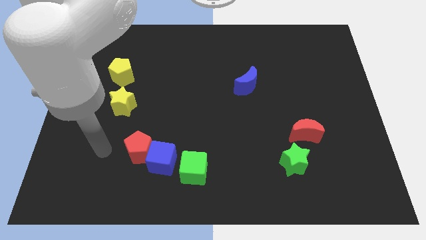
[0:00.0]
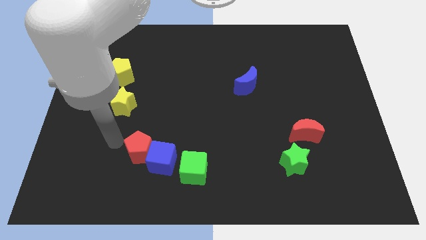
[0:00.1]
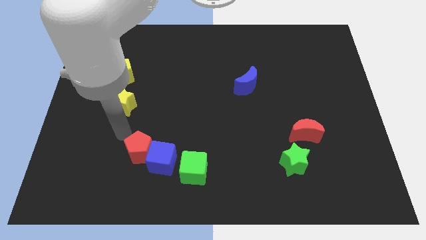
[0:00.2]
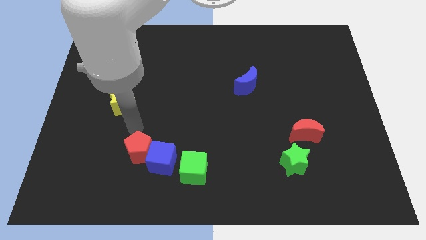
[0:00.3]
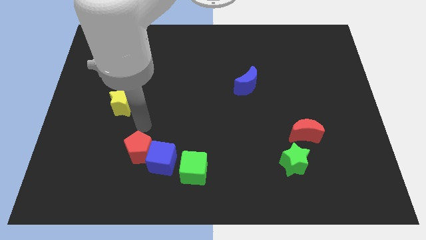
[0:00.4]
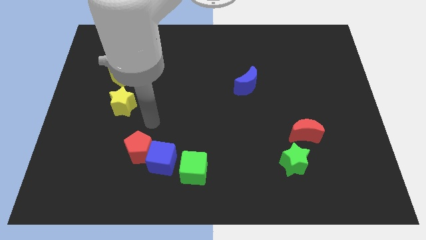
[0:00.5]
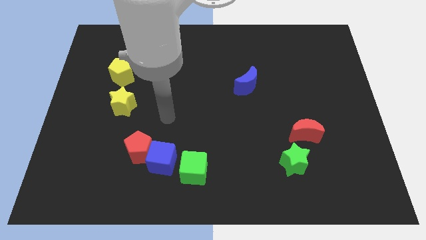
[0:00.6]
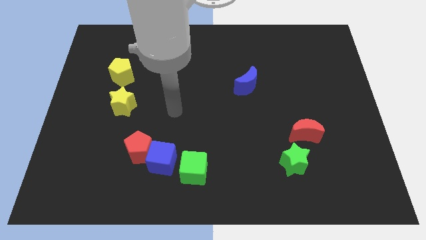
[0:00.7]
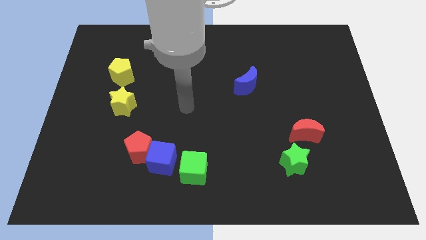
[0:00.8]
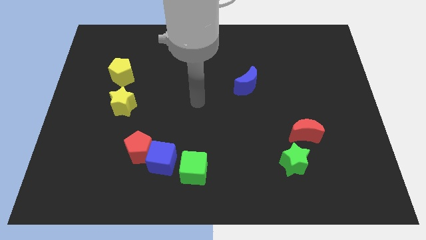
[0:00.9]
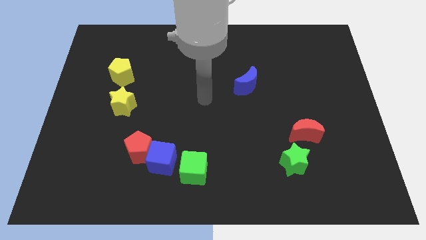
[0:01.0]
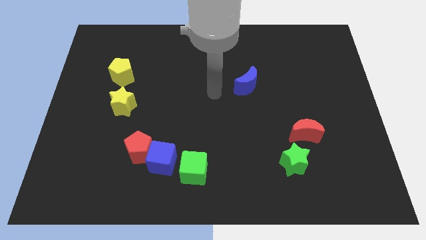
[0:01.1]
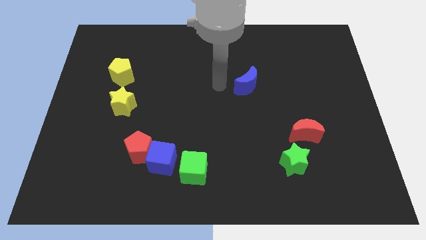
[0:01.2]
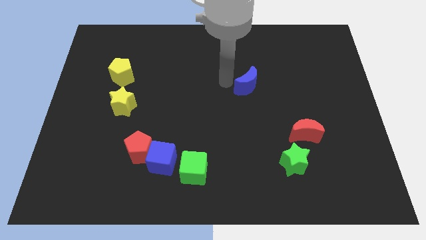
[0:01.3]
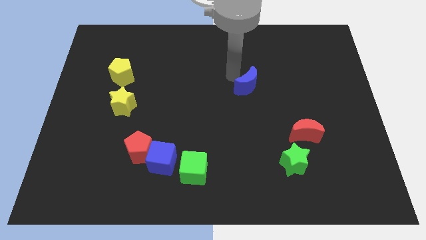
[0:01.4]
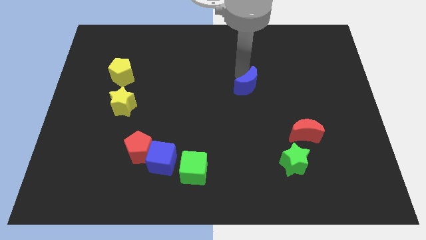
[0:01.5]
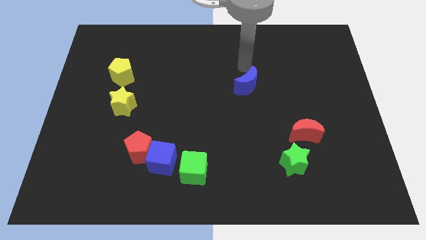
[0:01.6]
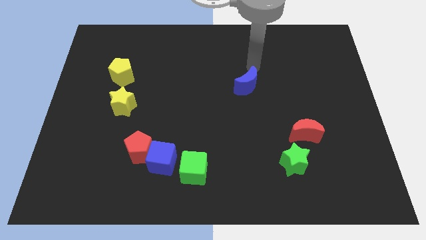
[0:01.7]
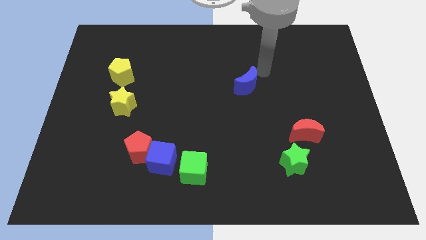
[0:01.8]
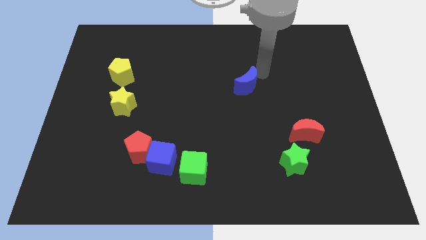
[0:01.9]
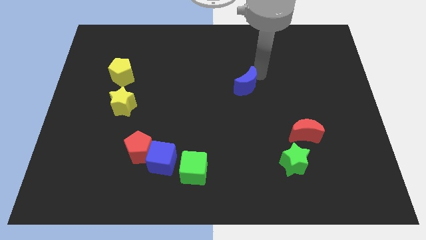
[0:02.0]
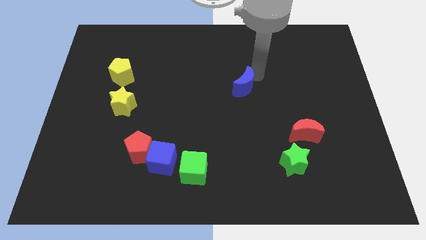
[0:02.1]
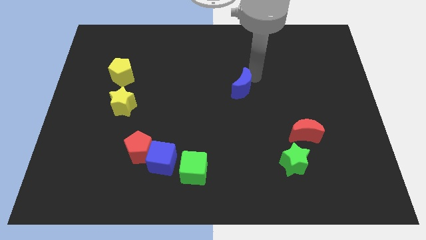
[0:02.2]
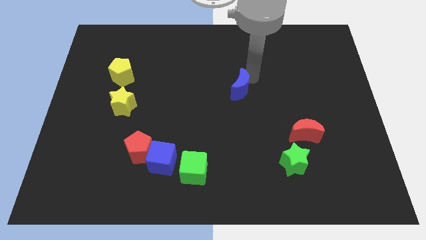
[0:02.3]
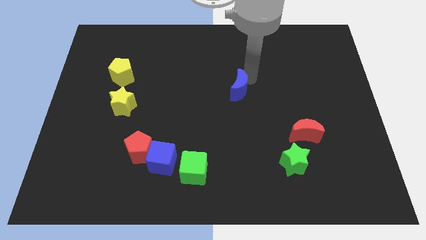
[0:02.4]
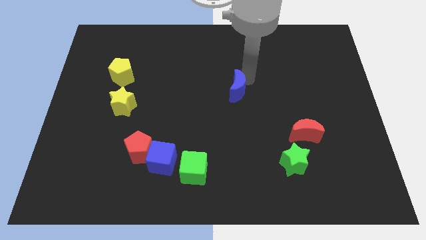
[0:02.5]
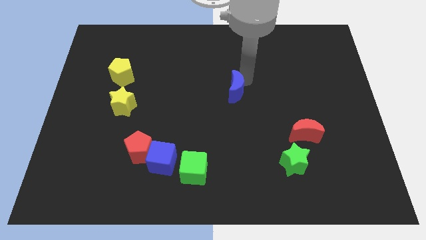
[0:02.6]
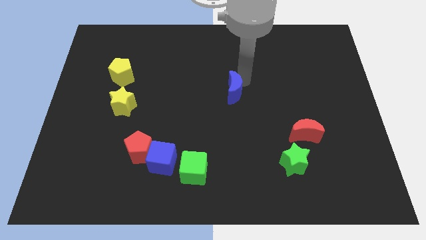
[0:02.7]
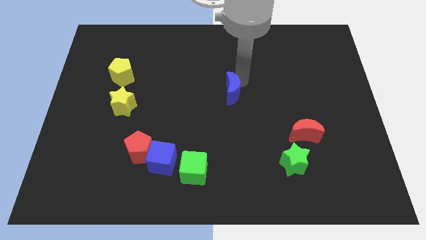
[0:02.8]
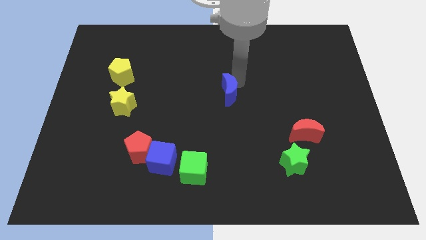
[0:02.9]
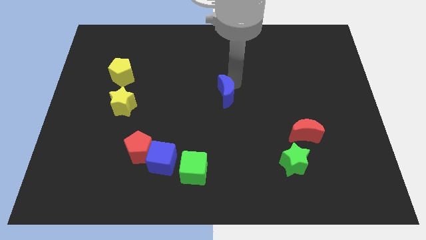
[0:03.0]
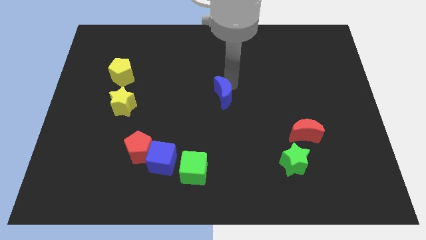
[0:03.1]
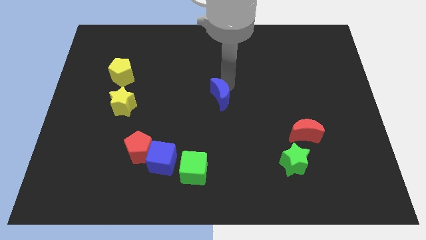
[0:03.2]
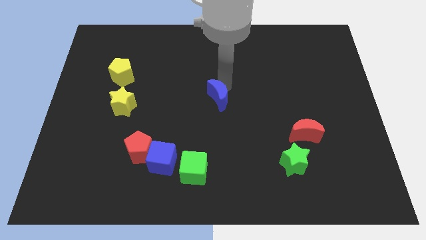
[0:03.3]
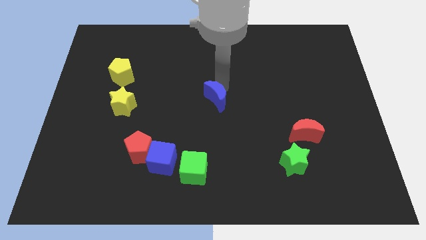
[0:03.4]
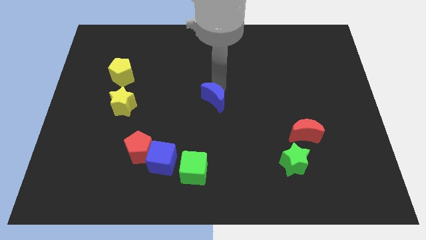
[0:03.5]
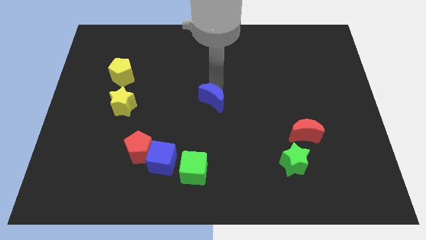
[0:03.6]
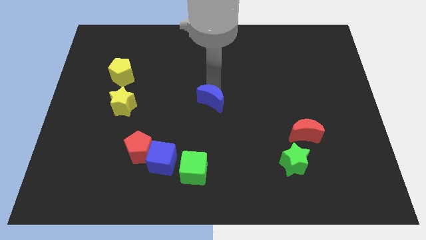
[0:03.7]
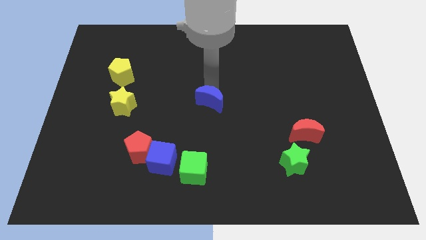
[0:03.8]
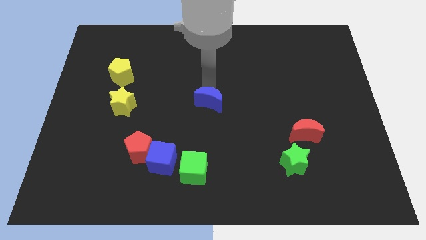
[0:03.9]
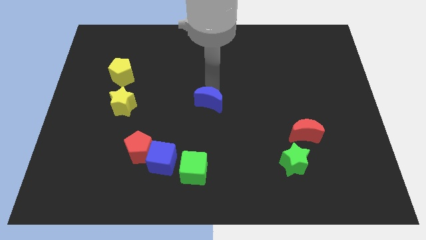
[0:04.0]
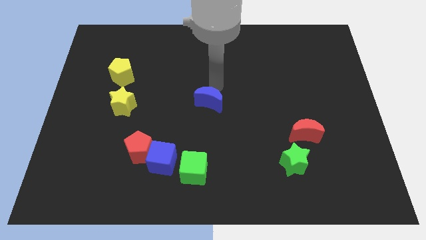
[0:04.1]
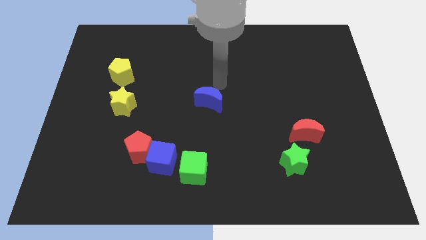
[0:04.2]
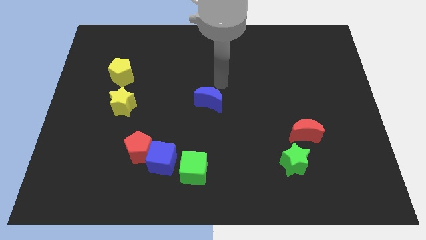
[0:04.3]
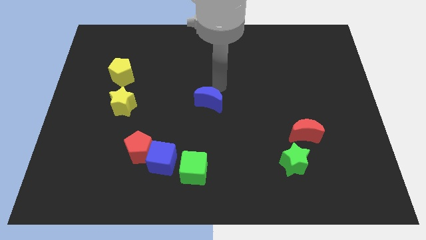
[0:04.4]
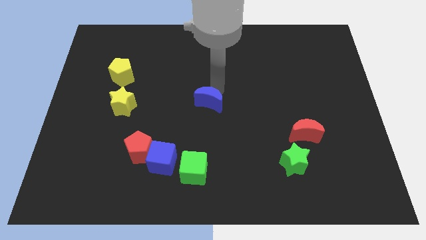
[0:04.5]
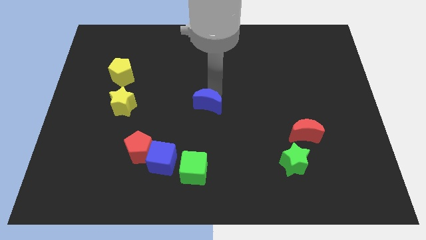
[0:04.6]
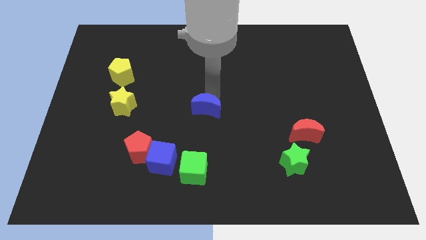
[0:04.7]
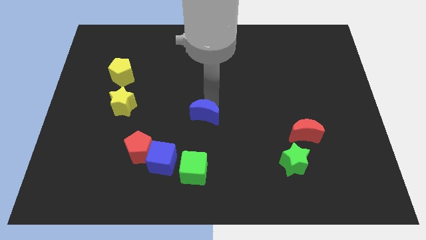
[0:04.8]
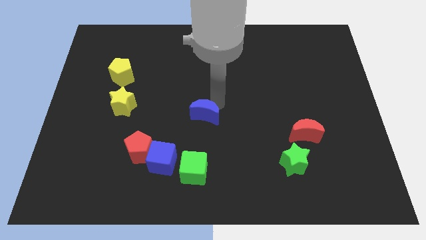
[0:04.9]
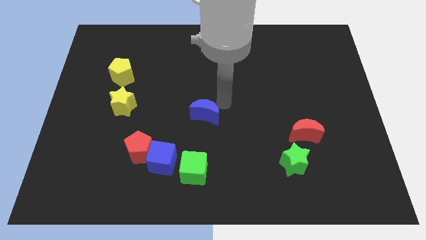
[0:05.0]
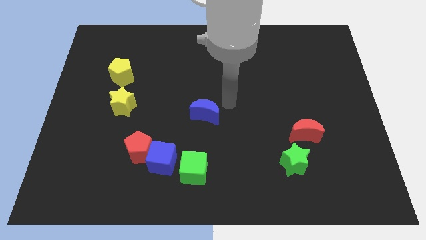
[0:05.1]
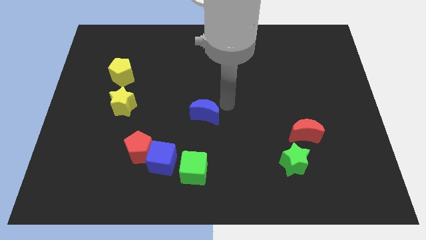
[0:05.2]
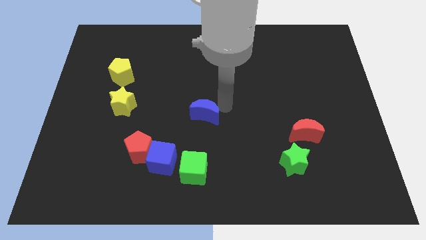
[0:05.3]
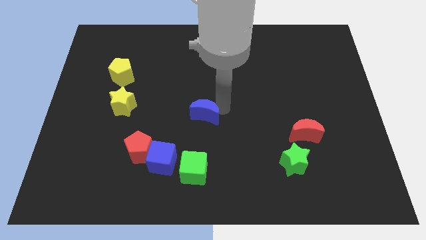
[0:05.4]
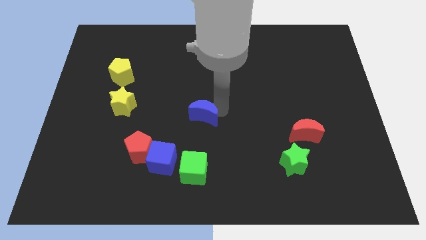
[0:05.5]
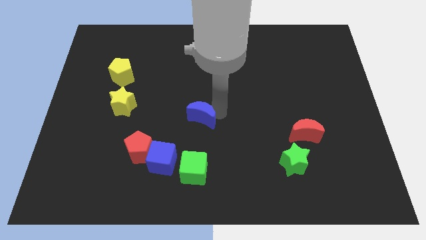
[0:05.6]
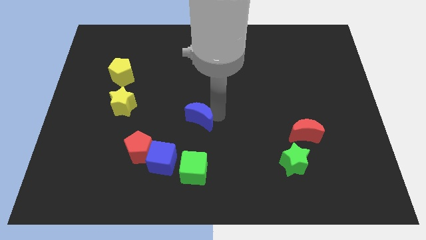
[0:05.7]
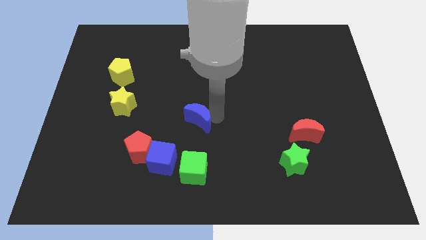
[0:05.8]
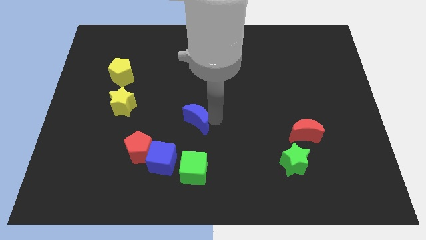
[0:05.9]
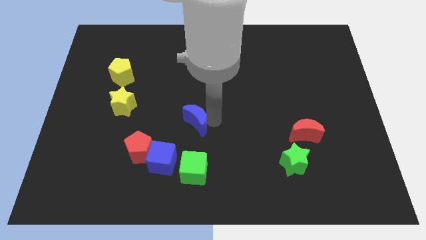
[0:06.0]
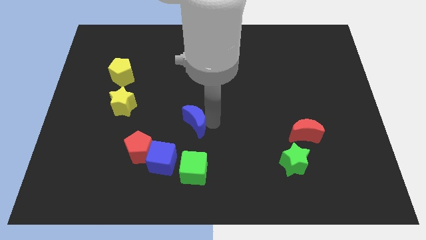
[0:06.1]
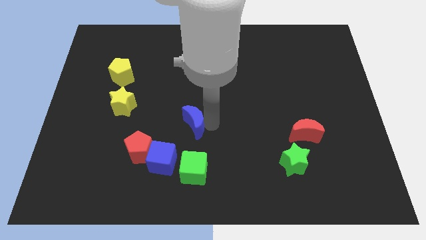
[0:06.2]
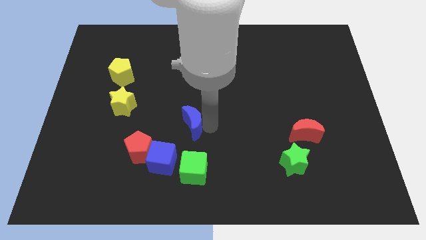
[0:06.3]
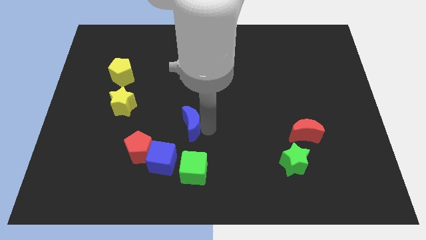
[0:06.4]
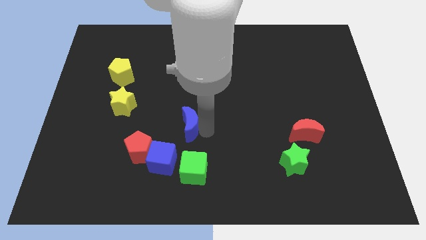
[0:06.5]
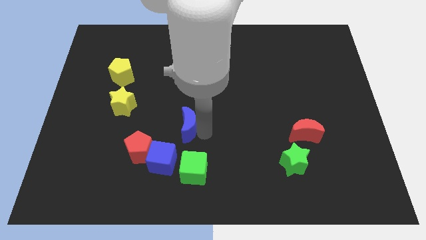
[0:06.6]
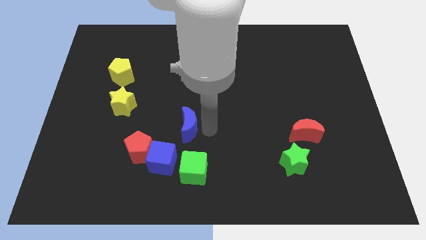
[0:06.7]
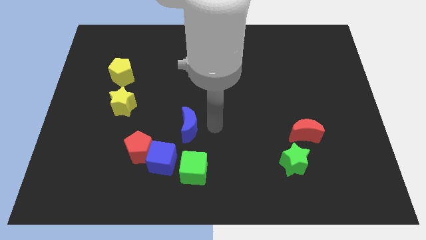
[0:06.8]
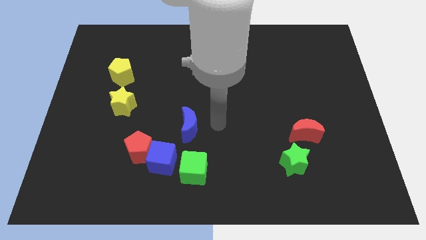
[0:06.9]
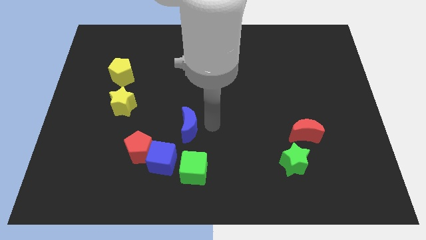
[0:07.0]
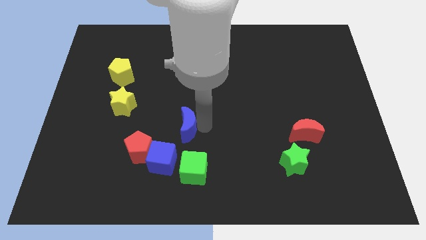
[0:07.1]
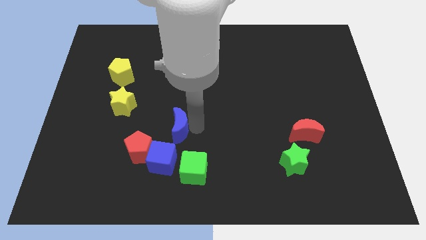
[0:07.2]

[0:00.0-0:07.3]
move the blue moon diagonally down and to the left

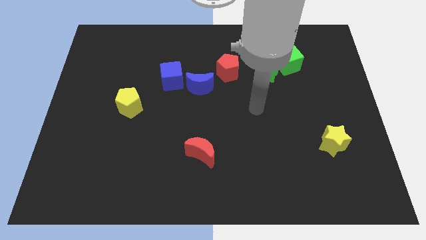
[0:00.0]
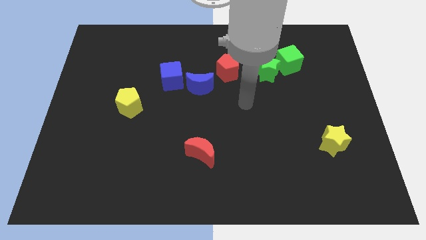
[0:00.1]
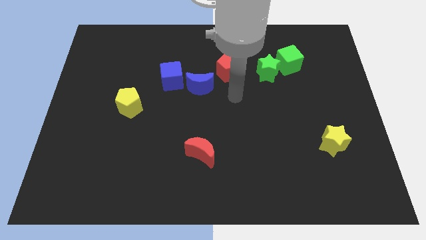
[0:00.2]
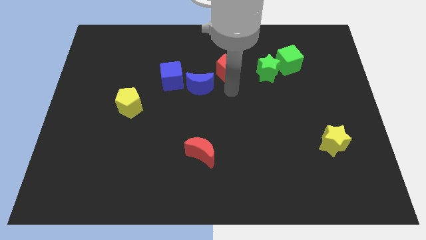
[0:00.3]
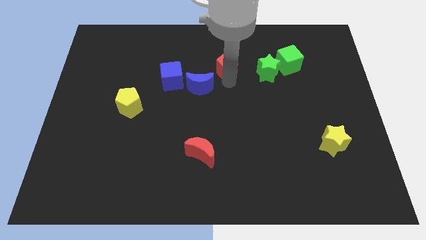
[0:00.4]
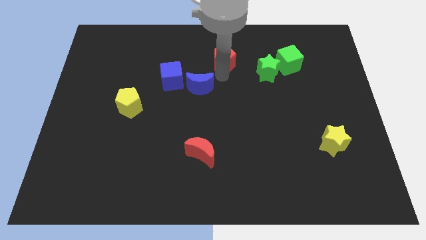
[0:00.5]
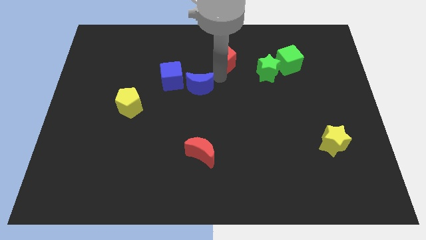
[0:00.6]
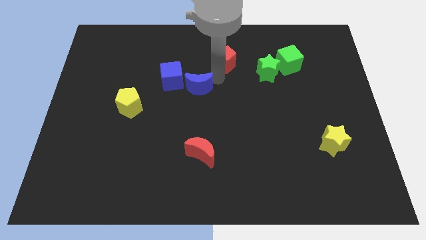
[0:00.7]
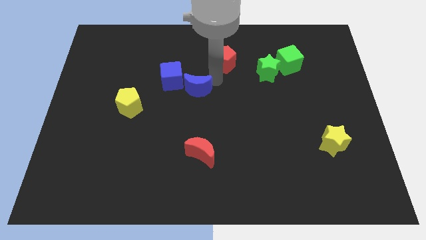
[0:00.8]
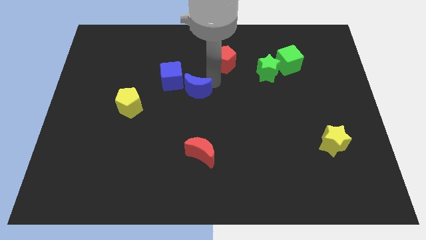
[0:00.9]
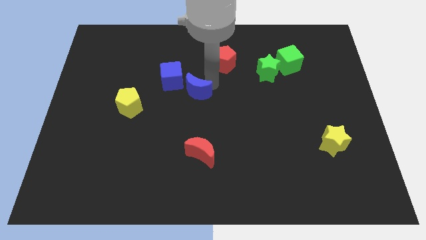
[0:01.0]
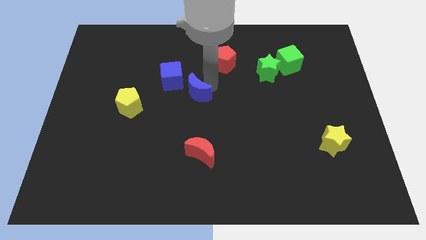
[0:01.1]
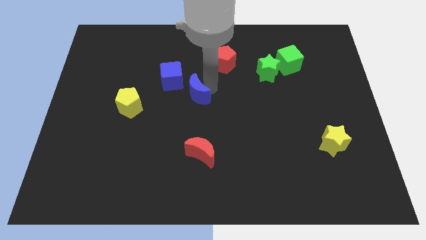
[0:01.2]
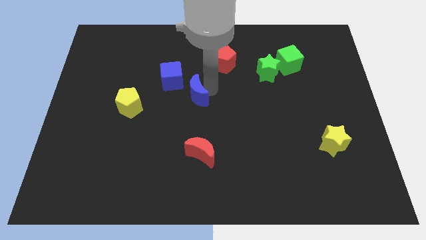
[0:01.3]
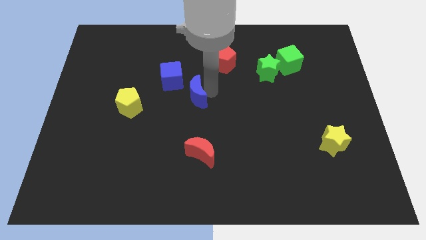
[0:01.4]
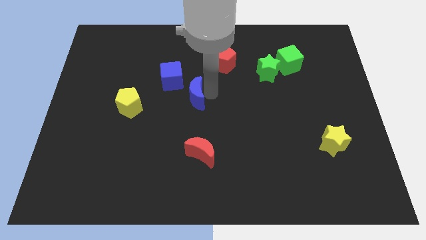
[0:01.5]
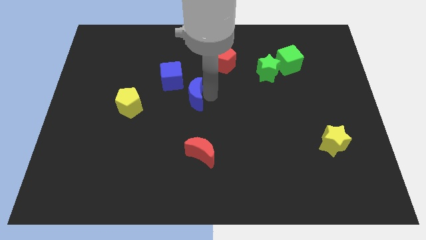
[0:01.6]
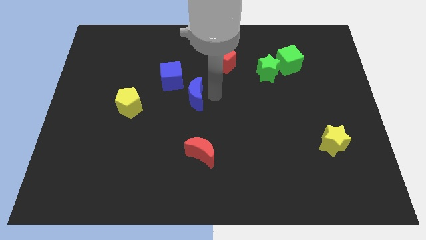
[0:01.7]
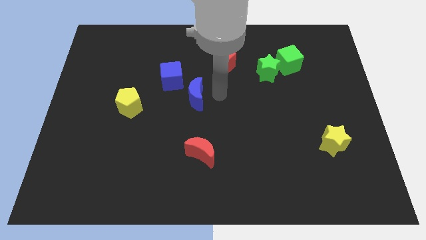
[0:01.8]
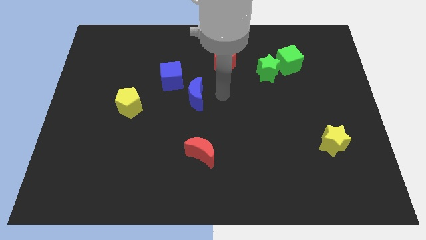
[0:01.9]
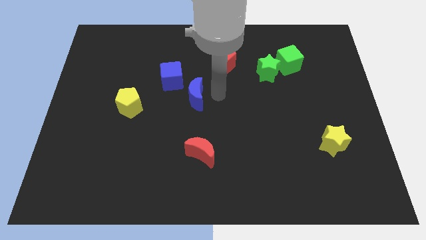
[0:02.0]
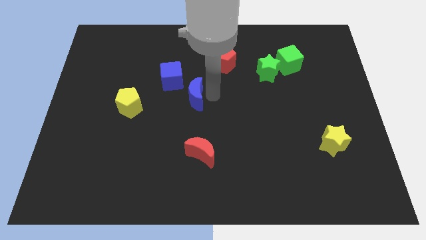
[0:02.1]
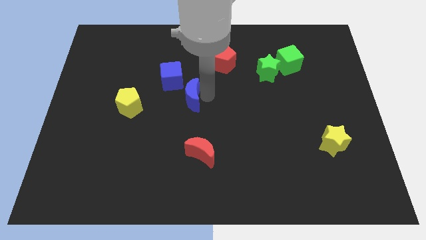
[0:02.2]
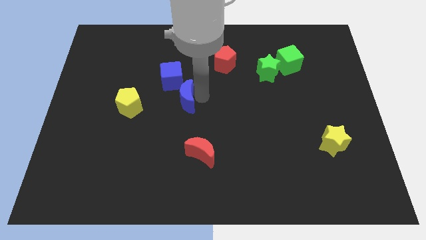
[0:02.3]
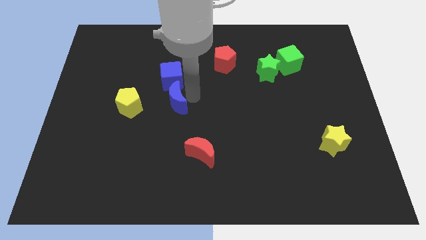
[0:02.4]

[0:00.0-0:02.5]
move the blue moon a little bit downwards and left
